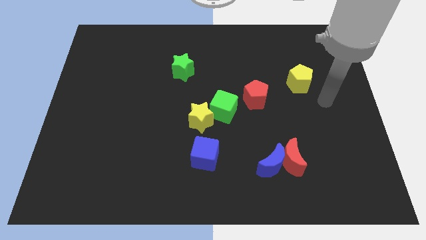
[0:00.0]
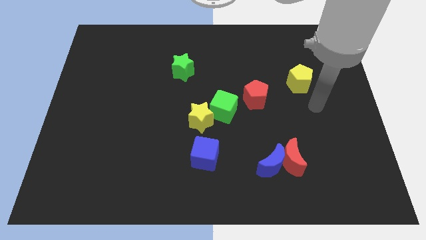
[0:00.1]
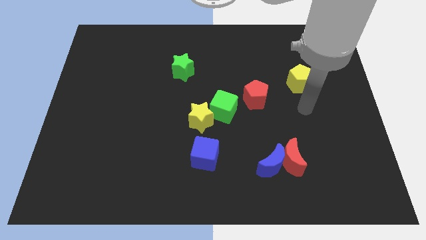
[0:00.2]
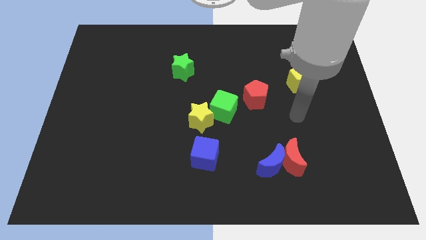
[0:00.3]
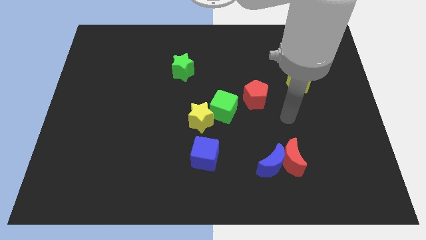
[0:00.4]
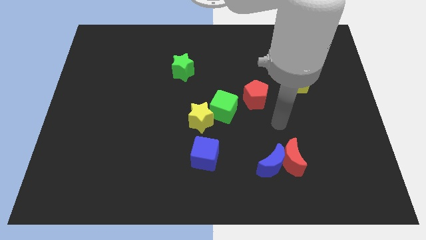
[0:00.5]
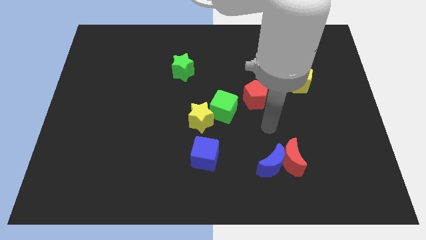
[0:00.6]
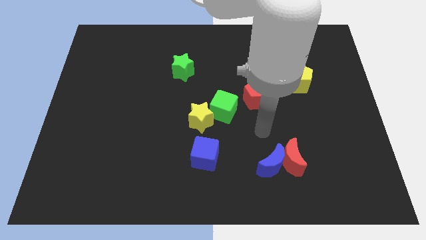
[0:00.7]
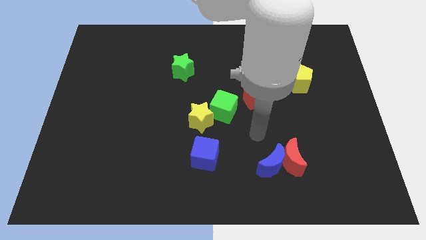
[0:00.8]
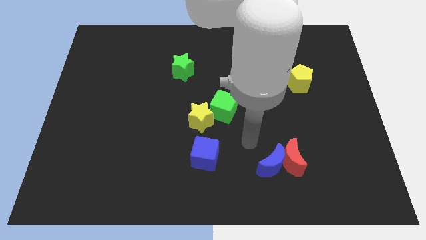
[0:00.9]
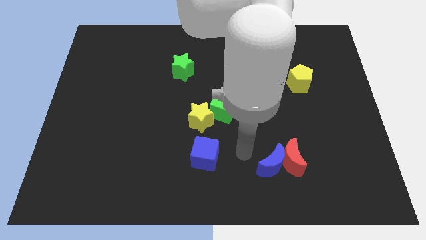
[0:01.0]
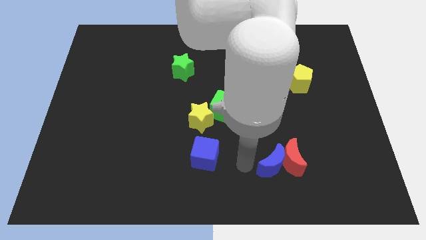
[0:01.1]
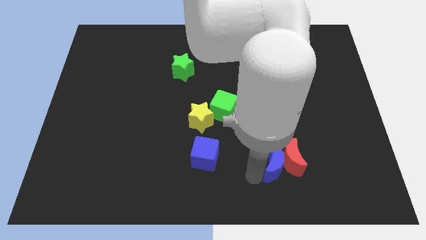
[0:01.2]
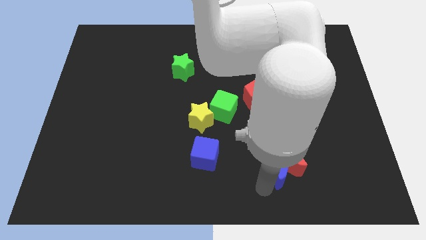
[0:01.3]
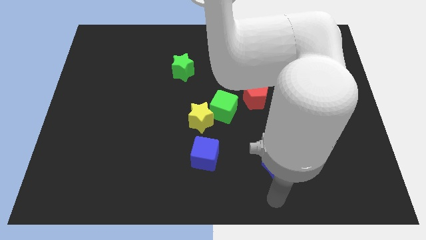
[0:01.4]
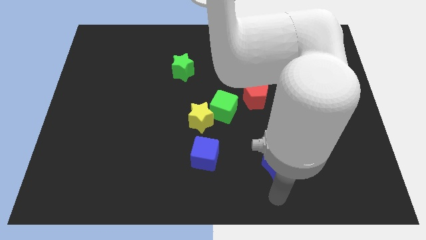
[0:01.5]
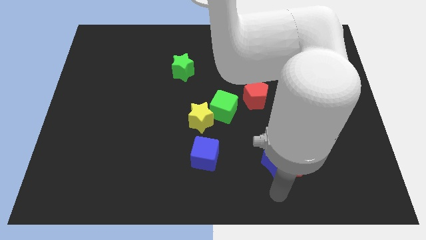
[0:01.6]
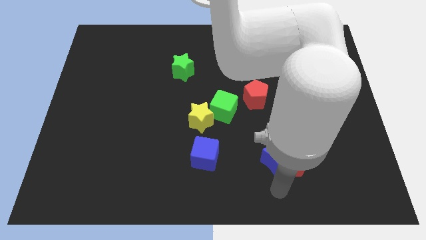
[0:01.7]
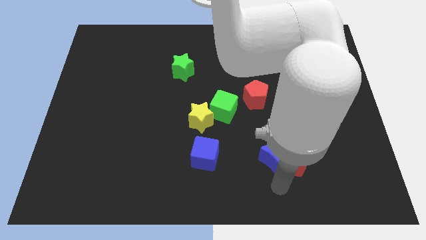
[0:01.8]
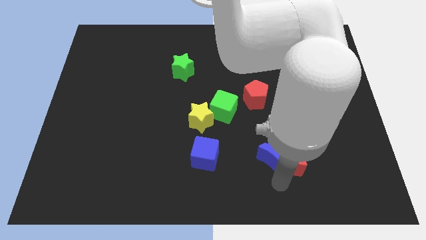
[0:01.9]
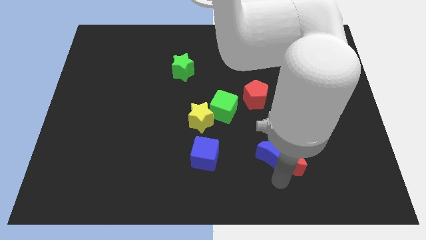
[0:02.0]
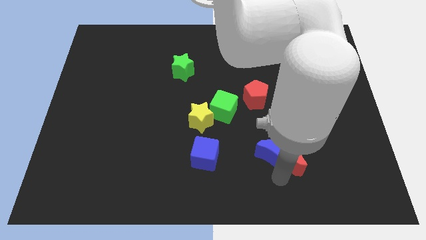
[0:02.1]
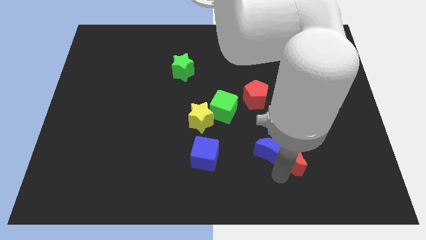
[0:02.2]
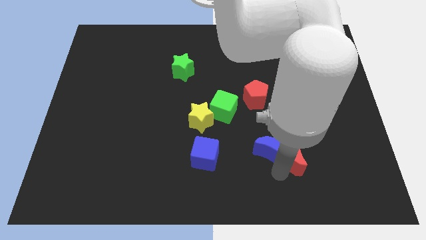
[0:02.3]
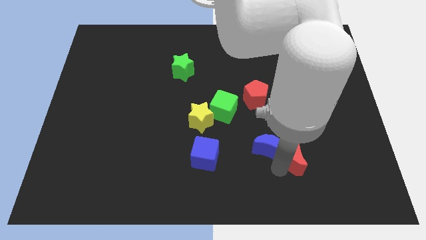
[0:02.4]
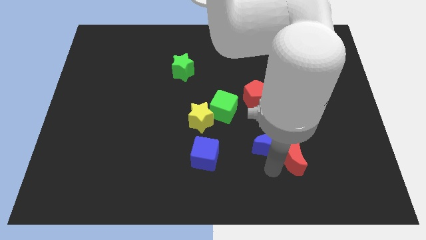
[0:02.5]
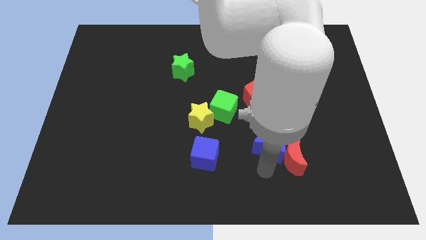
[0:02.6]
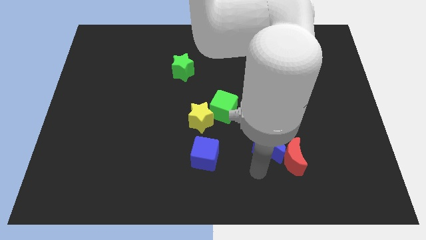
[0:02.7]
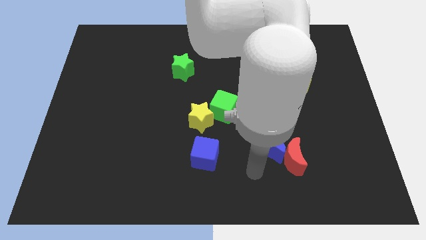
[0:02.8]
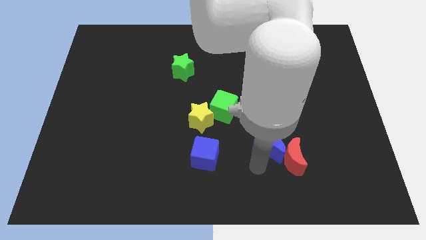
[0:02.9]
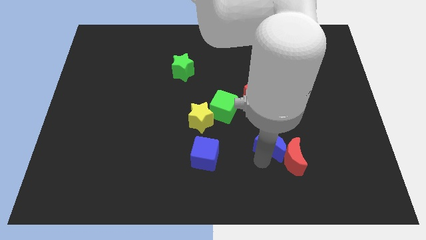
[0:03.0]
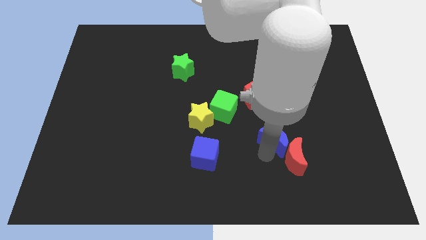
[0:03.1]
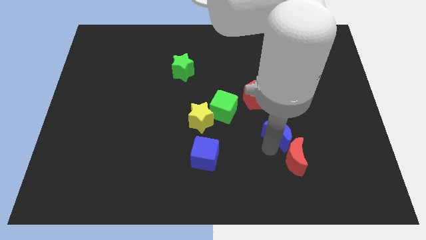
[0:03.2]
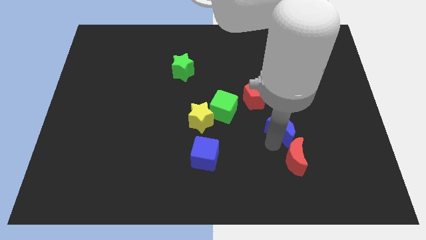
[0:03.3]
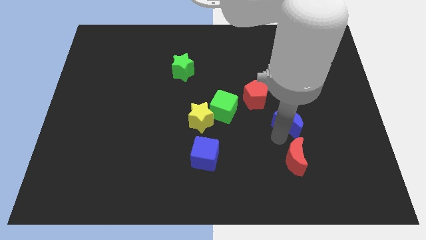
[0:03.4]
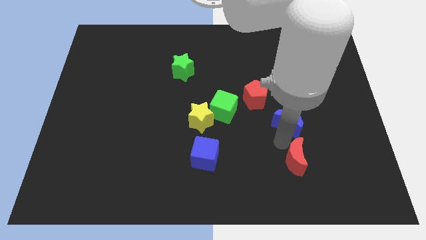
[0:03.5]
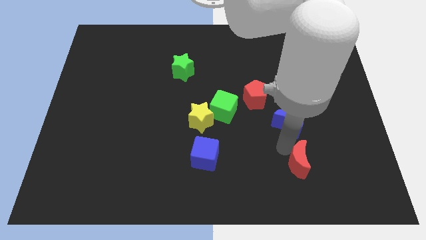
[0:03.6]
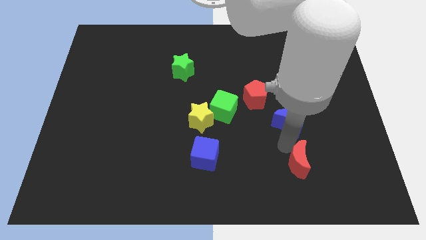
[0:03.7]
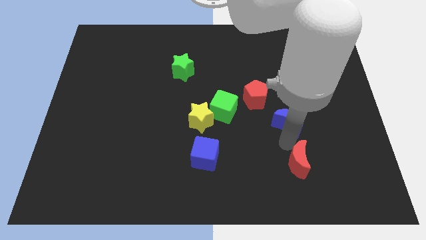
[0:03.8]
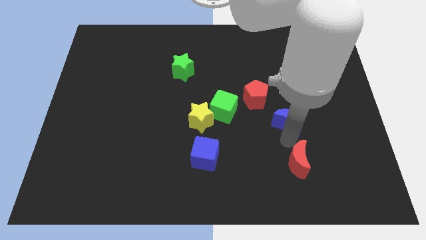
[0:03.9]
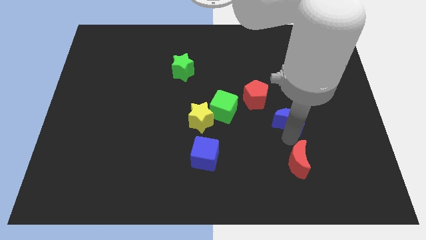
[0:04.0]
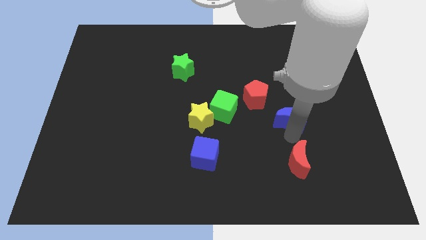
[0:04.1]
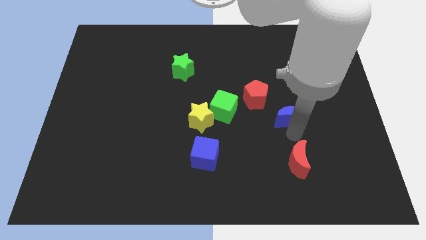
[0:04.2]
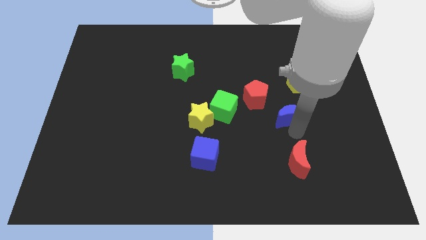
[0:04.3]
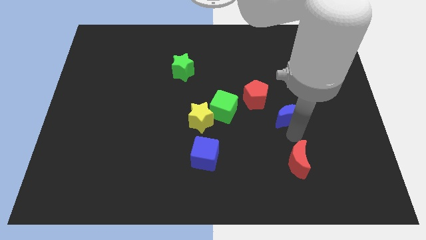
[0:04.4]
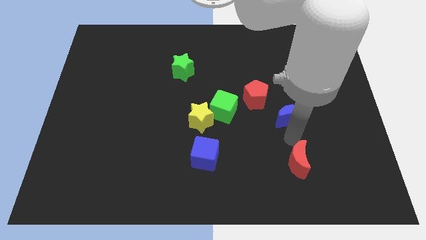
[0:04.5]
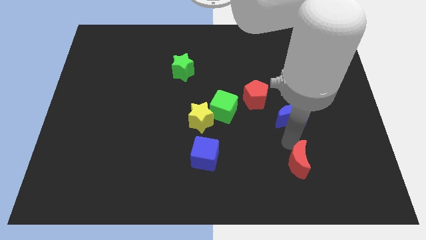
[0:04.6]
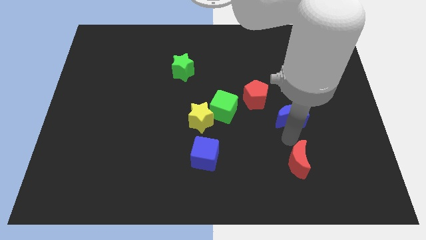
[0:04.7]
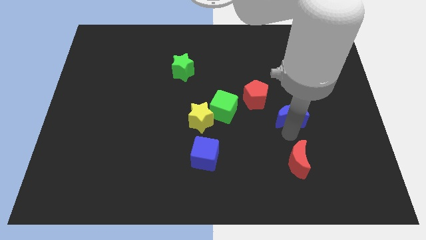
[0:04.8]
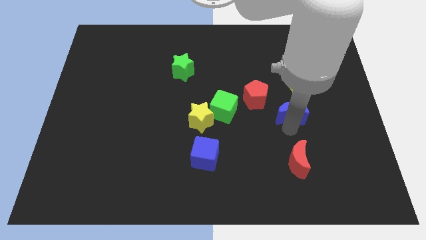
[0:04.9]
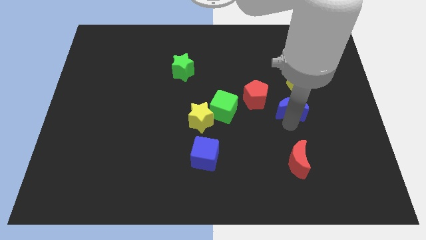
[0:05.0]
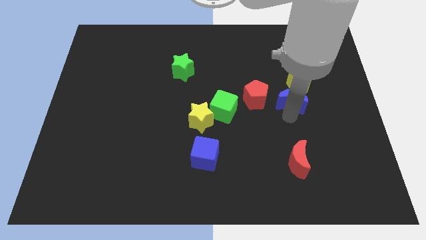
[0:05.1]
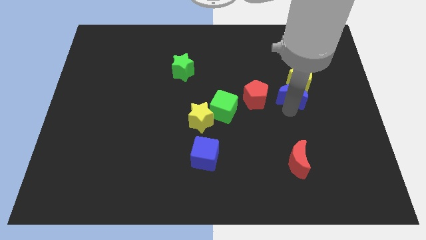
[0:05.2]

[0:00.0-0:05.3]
move the blue moon next to the yellow pentagon

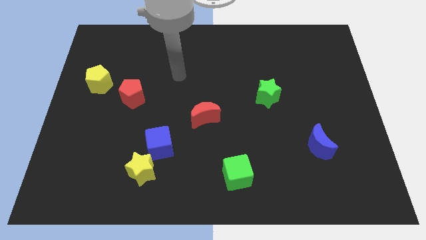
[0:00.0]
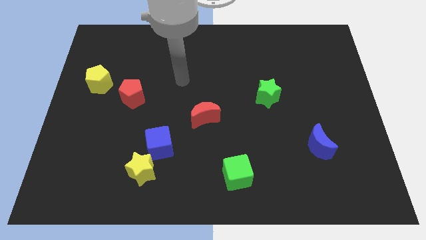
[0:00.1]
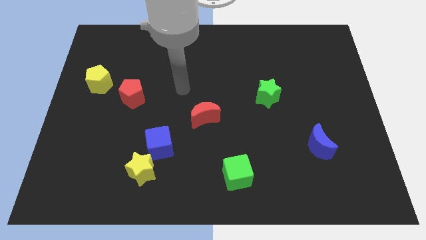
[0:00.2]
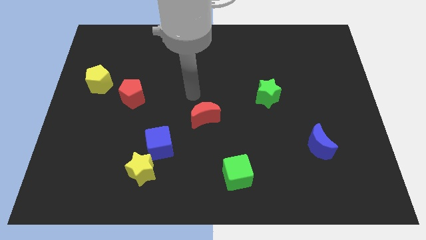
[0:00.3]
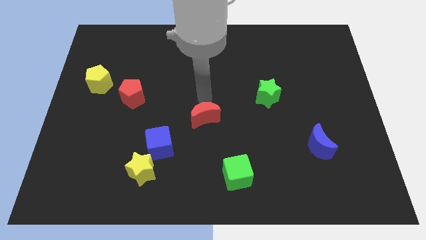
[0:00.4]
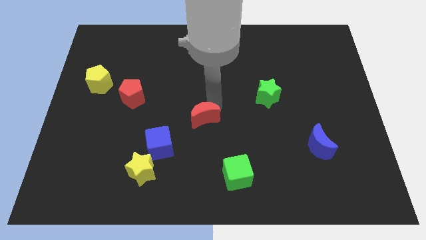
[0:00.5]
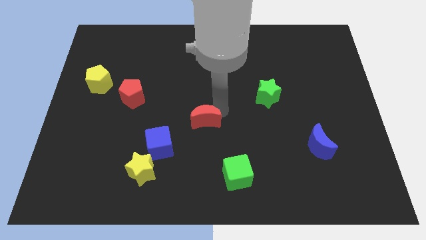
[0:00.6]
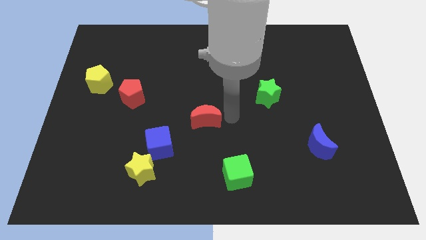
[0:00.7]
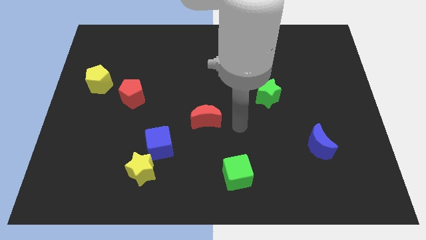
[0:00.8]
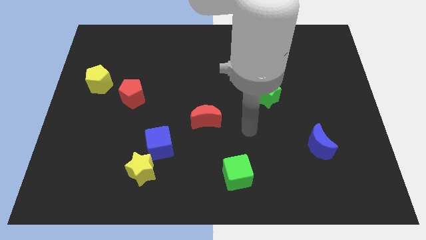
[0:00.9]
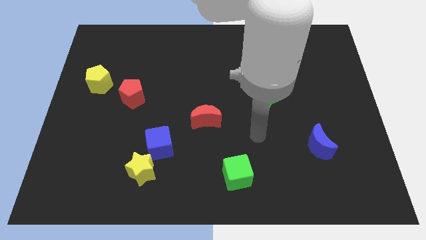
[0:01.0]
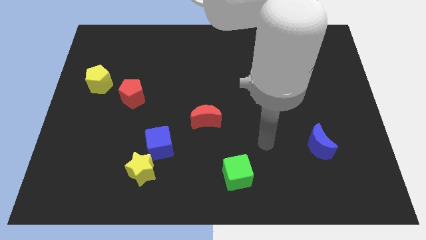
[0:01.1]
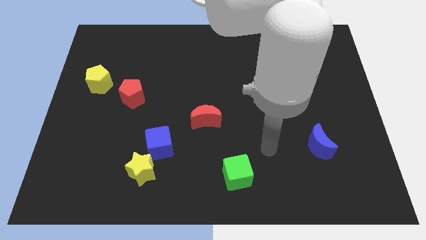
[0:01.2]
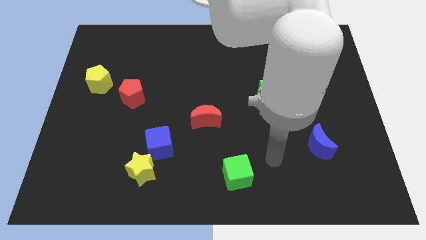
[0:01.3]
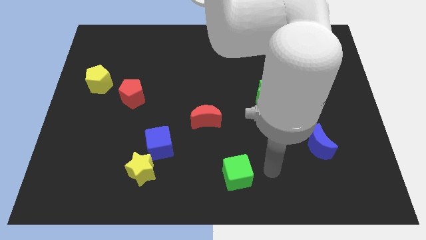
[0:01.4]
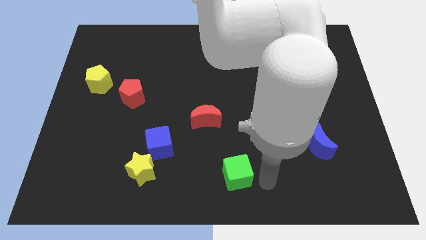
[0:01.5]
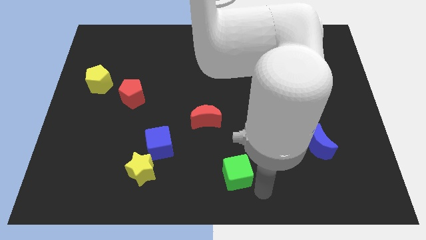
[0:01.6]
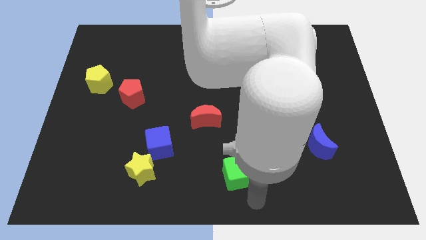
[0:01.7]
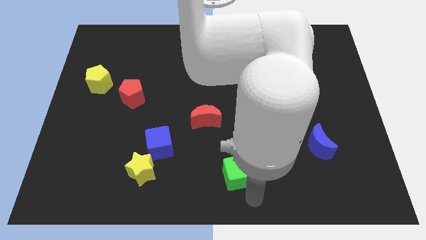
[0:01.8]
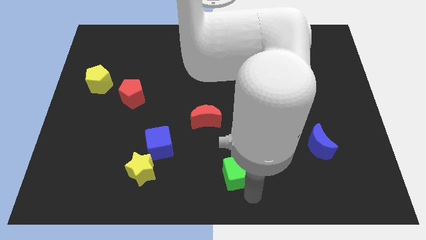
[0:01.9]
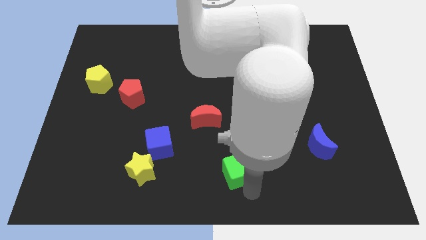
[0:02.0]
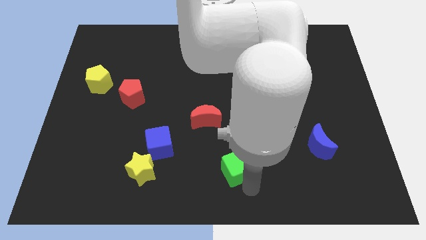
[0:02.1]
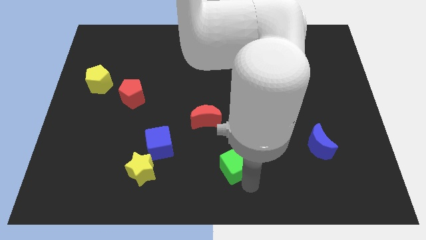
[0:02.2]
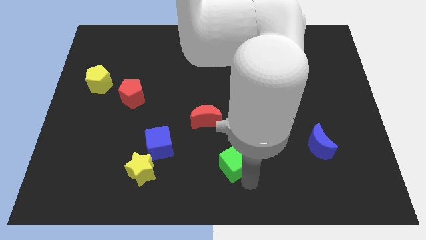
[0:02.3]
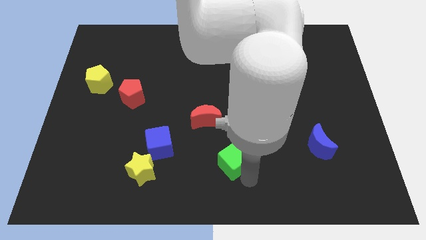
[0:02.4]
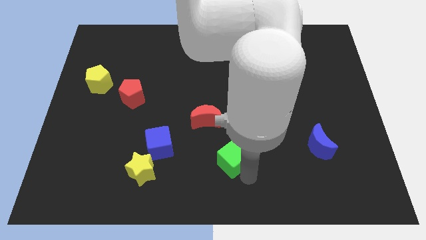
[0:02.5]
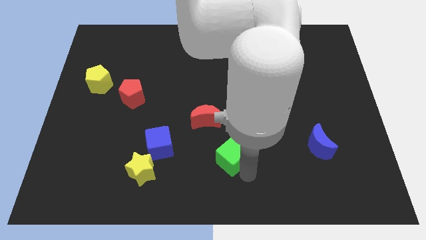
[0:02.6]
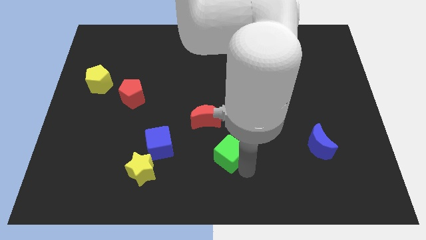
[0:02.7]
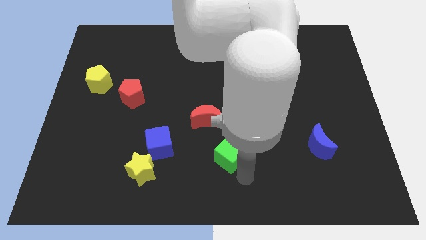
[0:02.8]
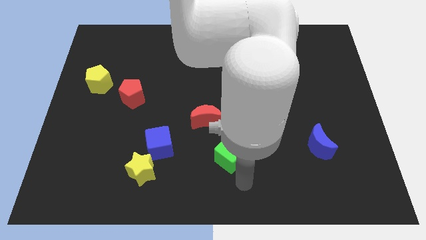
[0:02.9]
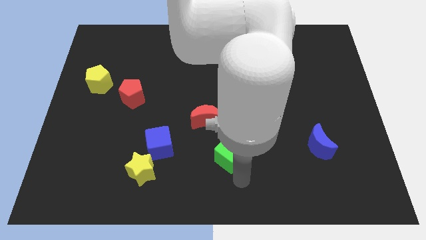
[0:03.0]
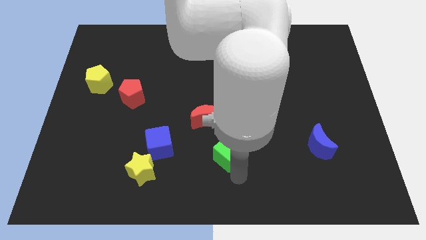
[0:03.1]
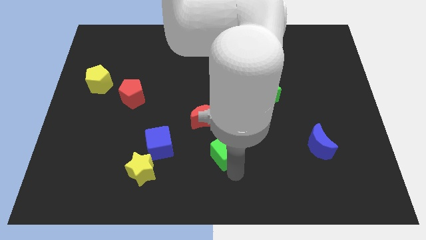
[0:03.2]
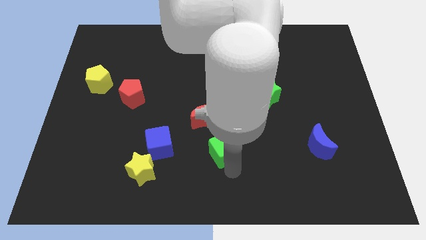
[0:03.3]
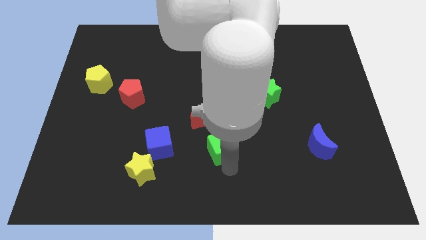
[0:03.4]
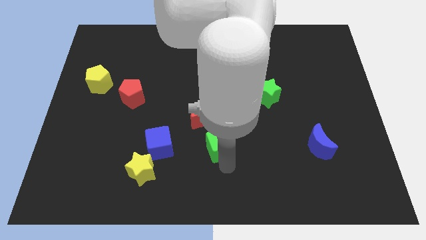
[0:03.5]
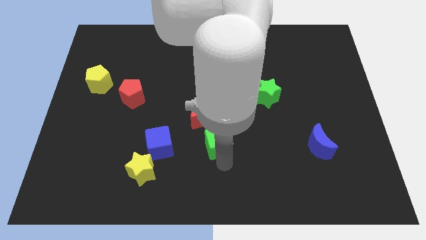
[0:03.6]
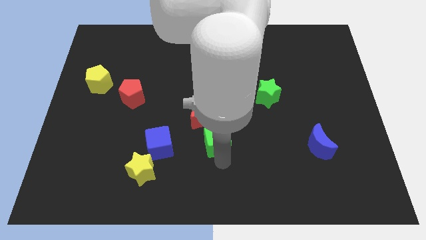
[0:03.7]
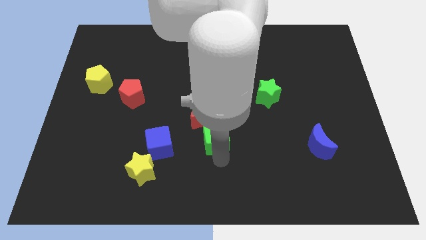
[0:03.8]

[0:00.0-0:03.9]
put the green cube next to the red moon
